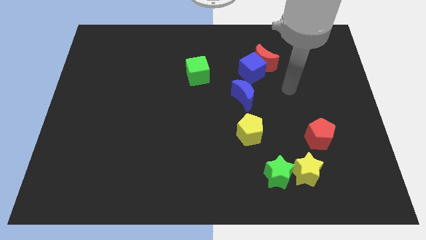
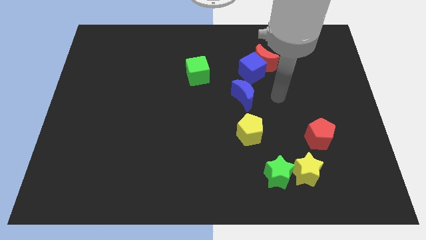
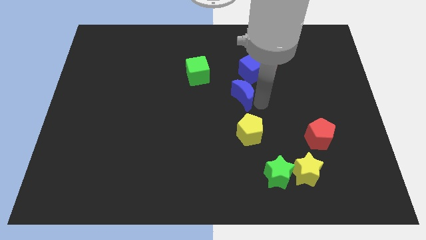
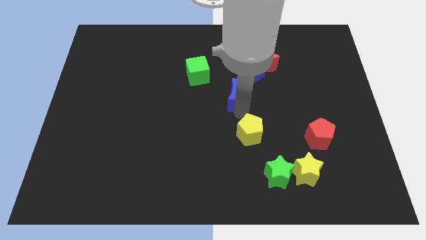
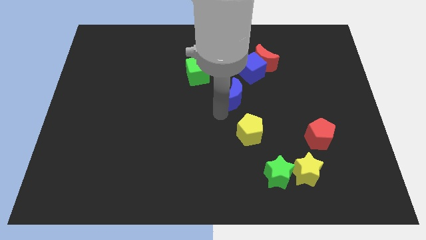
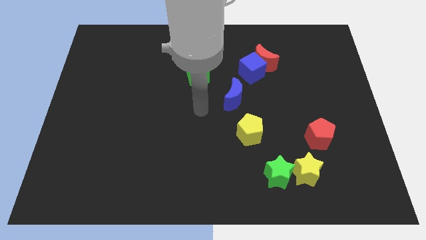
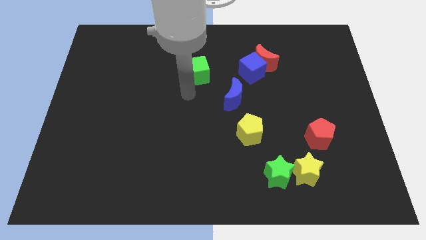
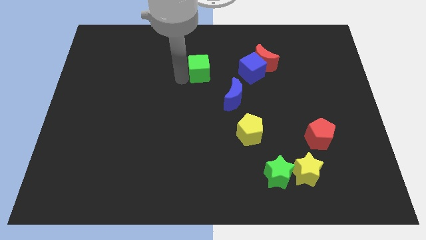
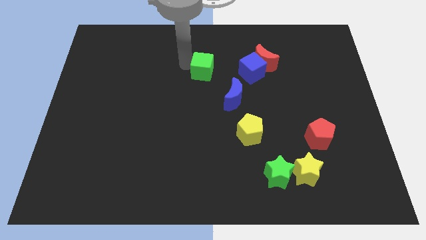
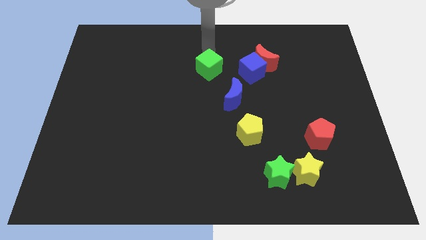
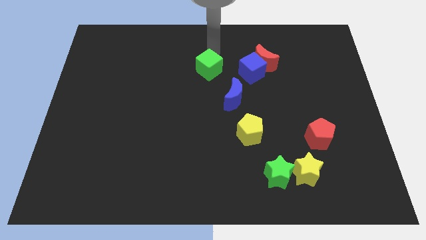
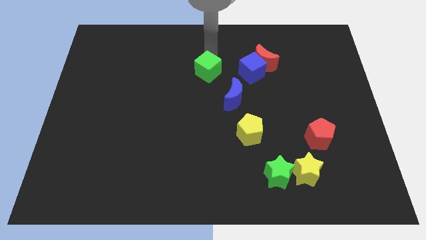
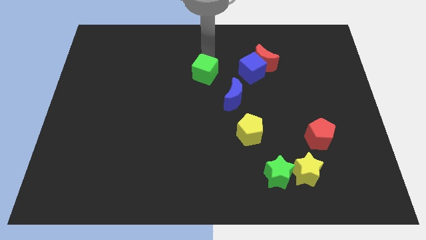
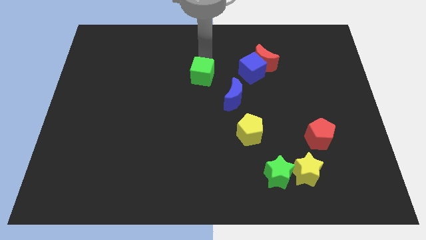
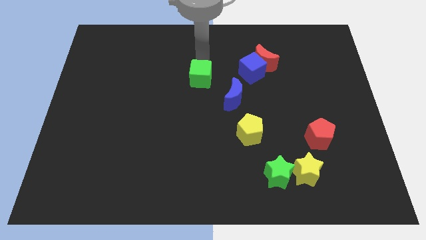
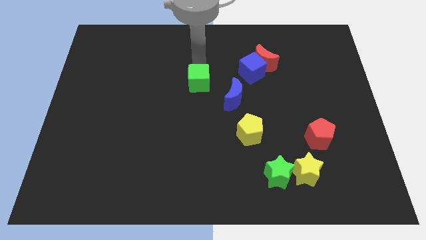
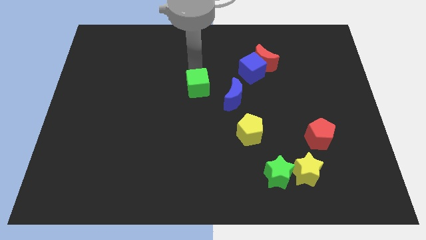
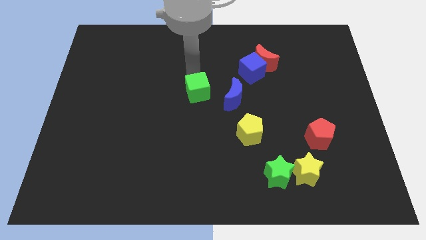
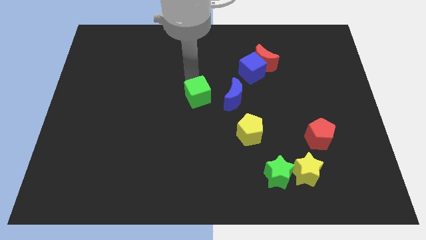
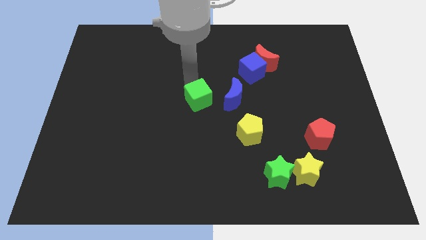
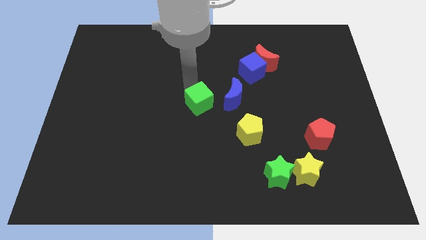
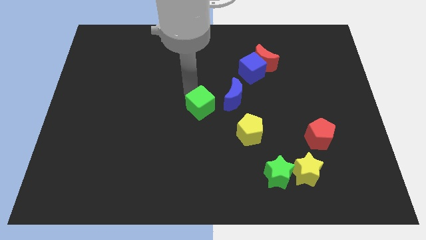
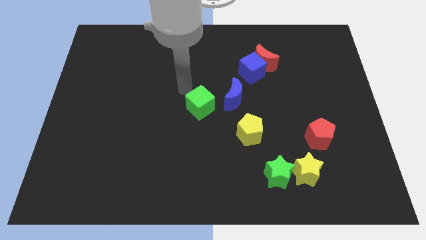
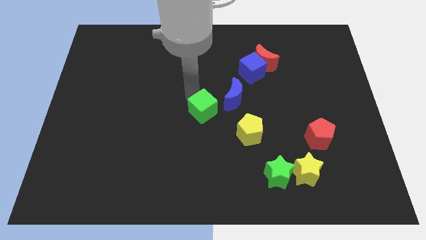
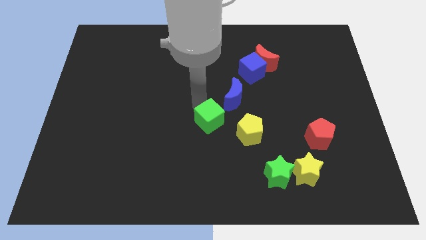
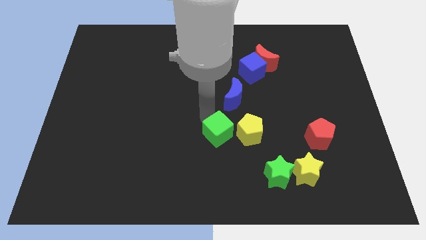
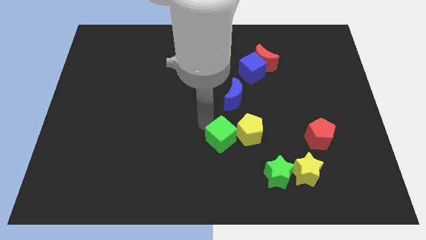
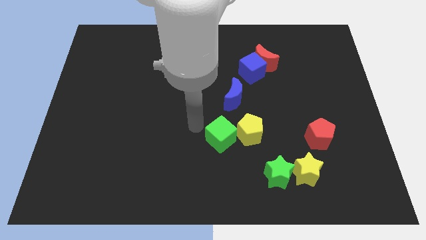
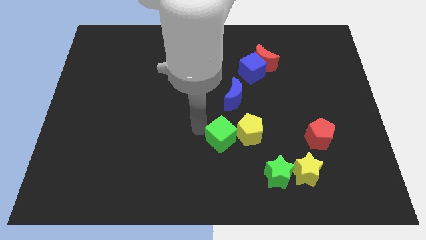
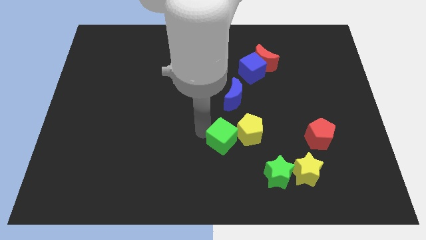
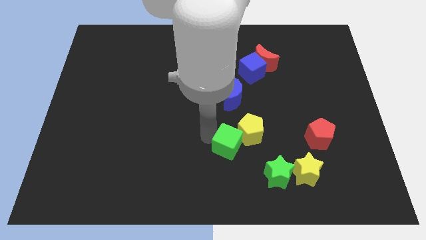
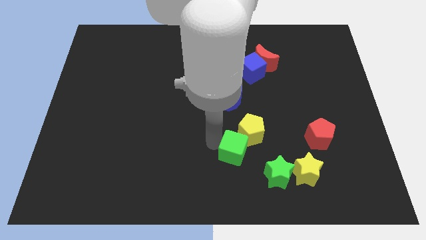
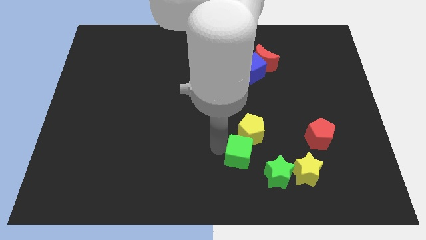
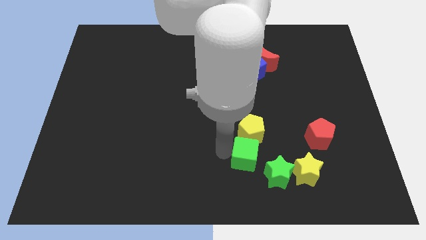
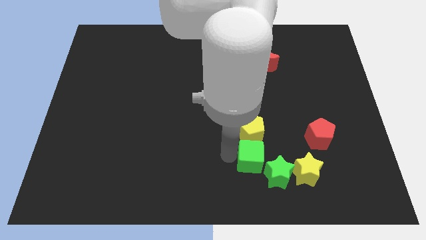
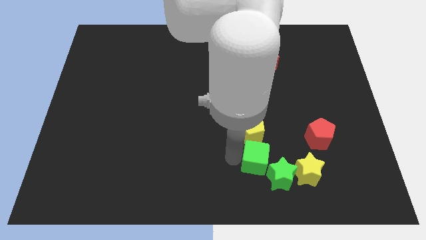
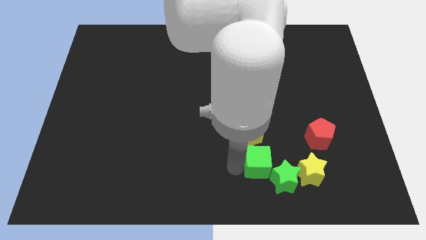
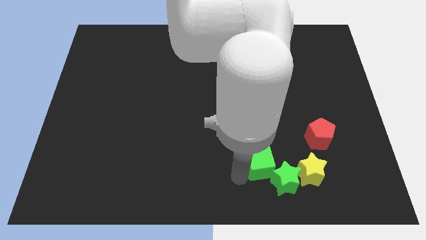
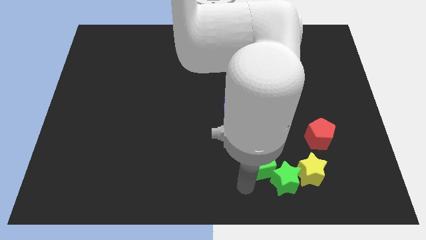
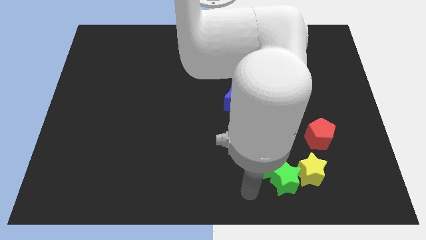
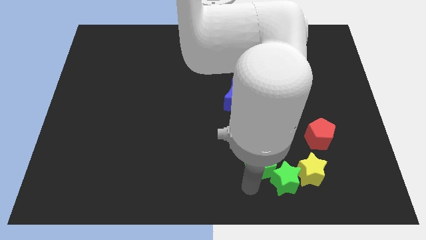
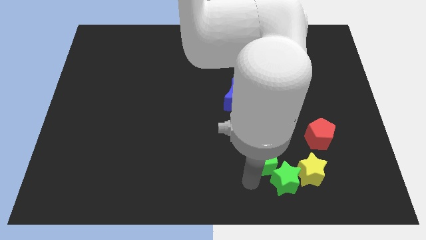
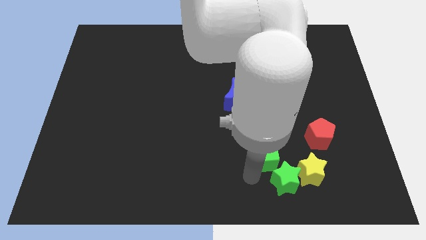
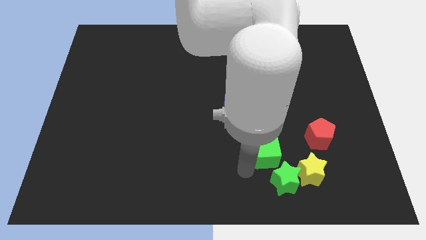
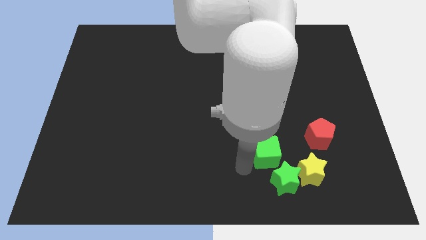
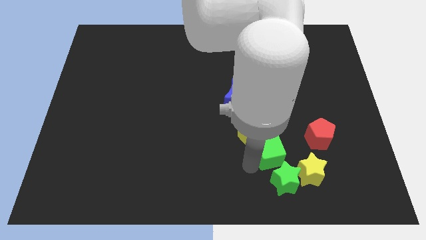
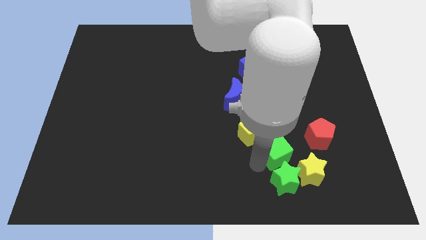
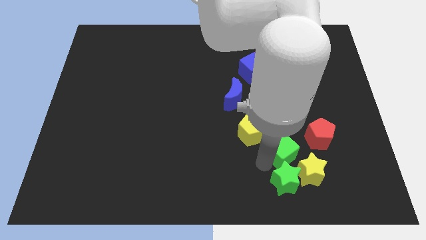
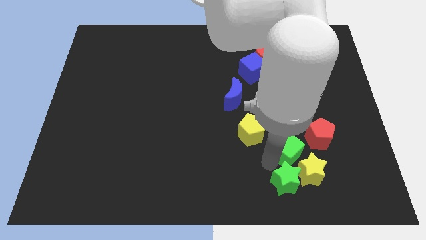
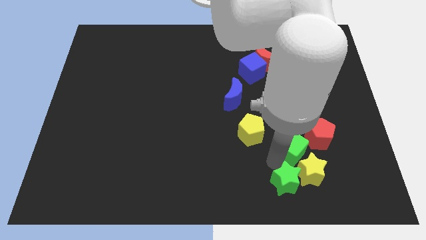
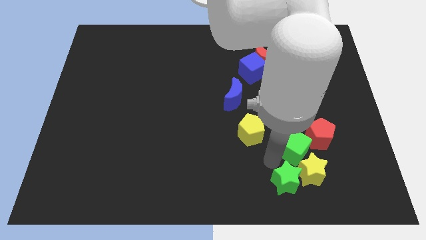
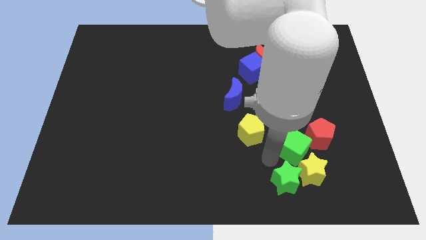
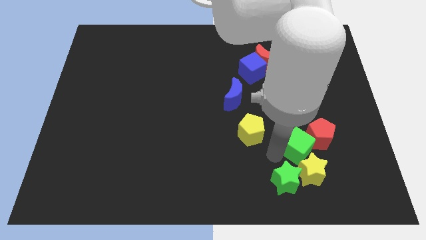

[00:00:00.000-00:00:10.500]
move the green cube close to the red pentagon

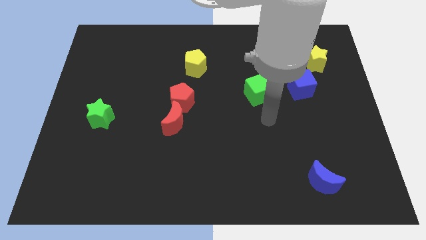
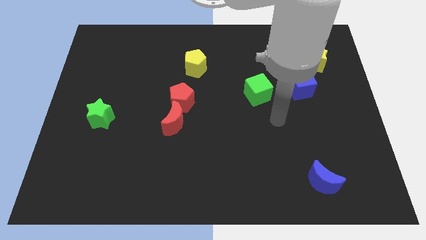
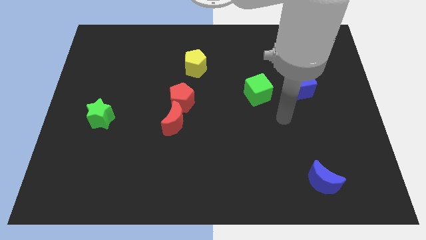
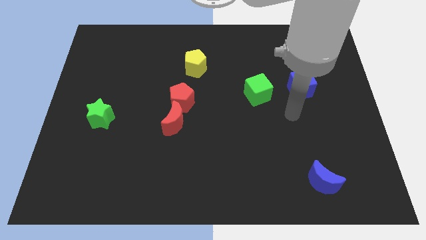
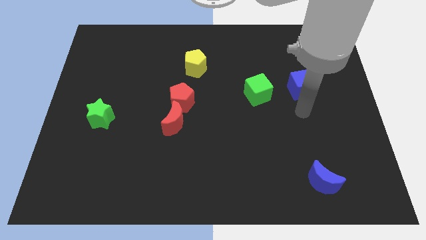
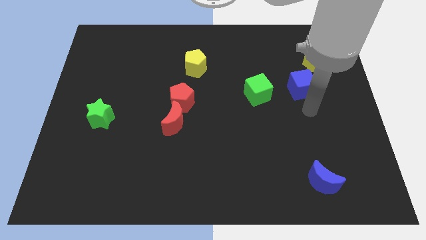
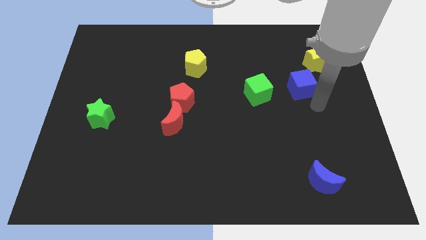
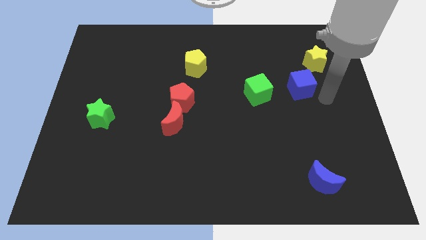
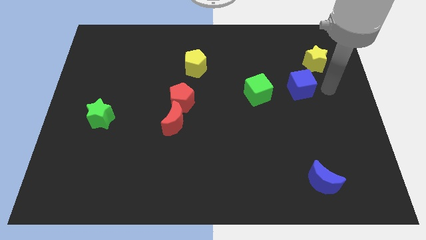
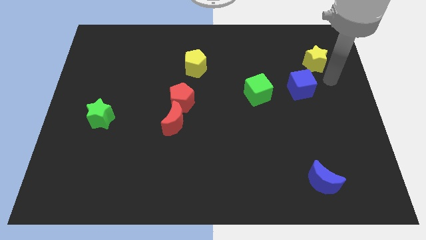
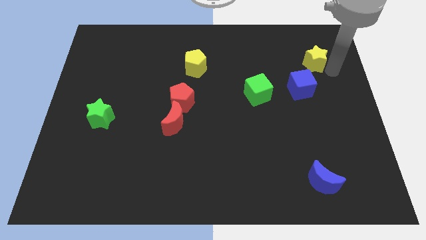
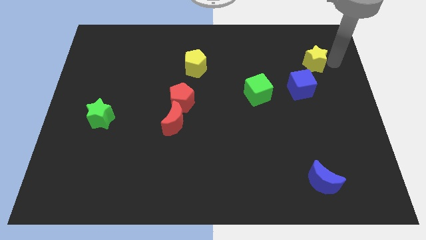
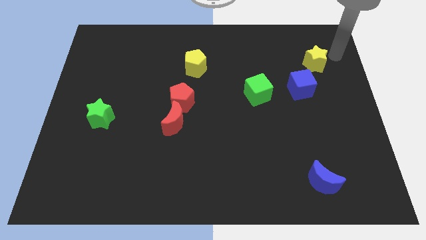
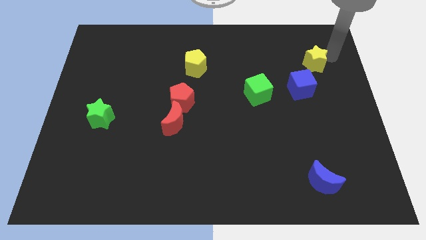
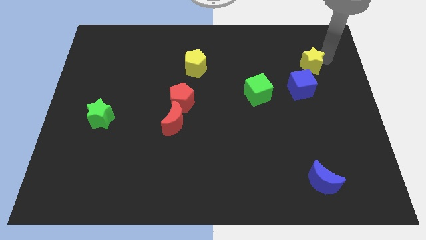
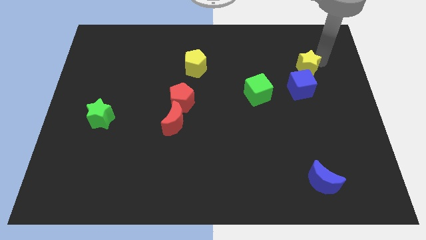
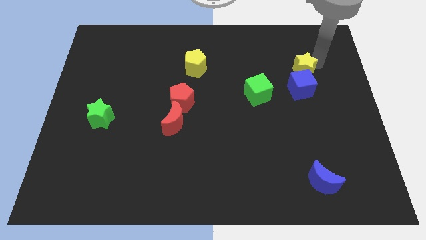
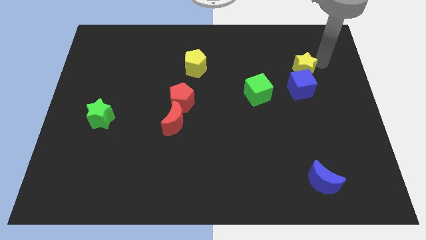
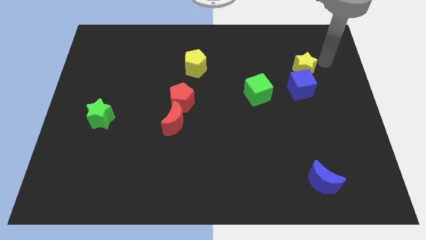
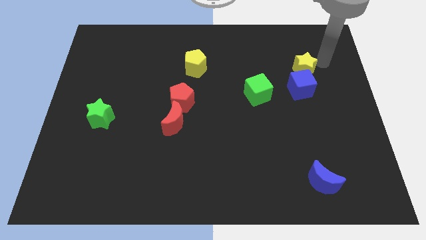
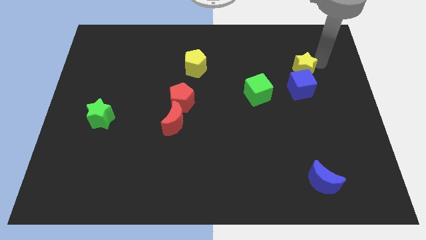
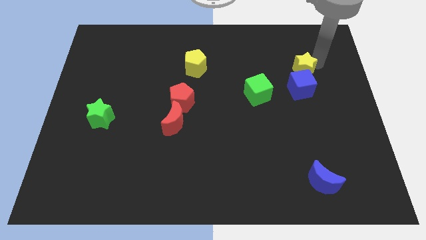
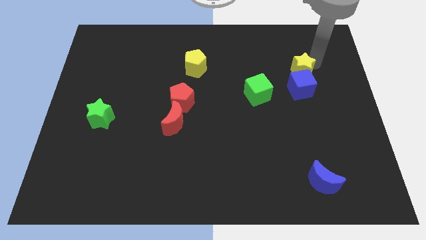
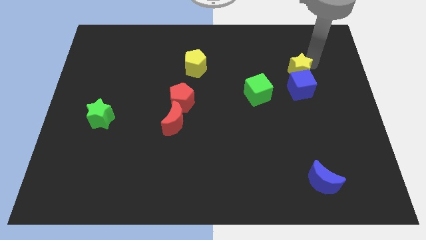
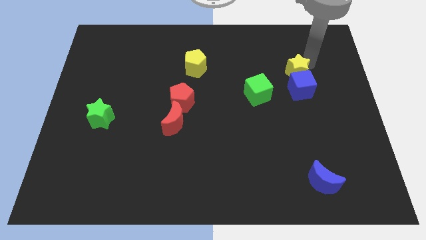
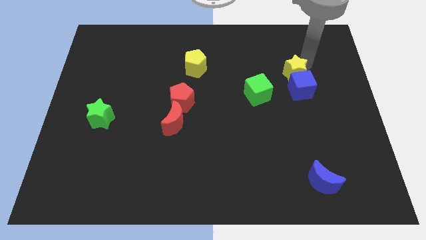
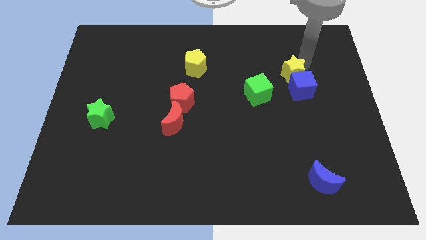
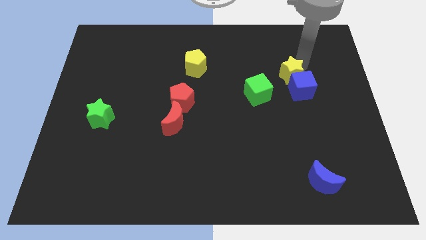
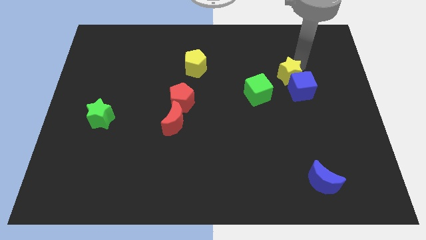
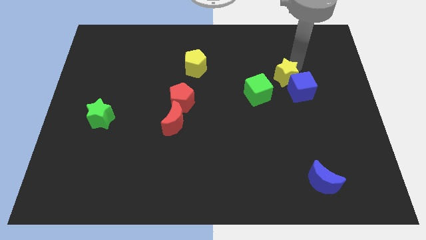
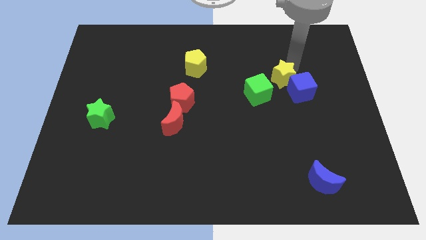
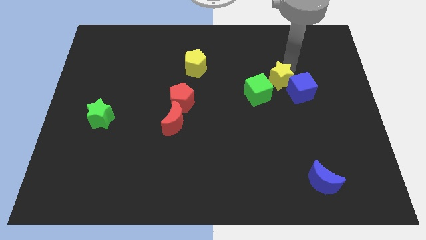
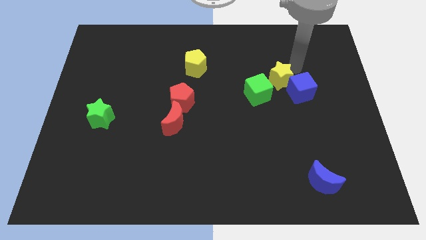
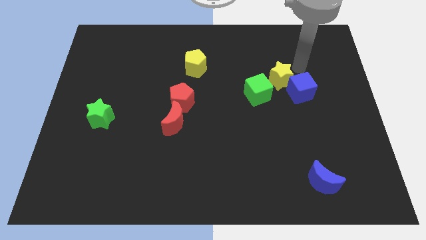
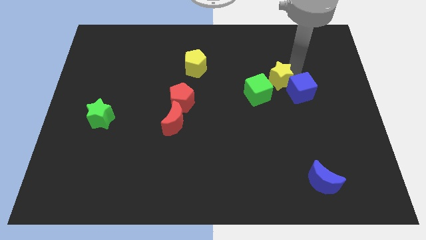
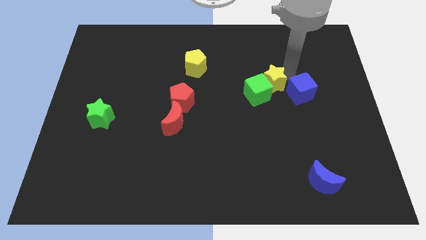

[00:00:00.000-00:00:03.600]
put the yellow star close to the green cube
